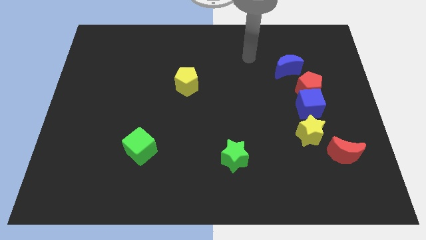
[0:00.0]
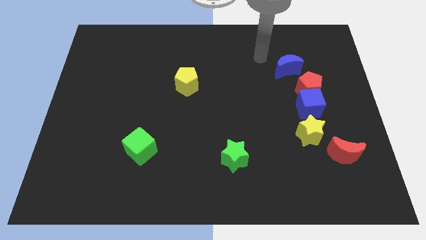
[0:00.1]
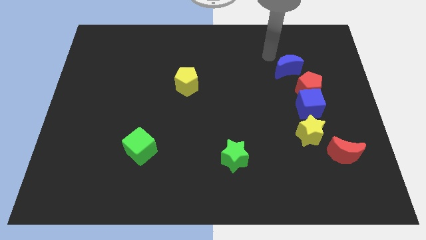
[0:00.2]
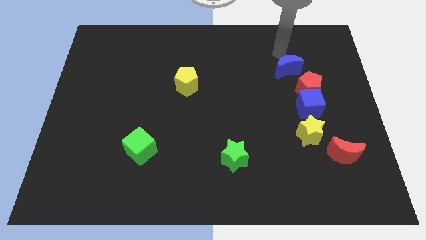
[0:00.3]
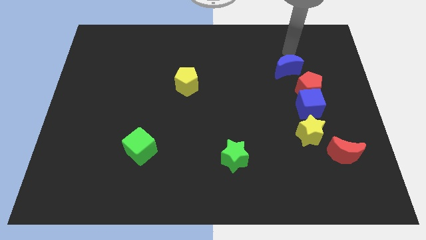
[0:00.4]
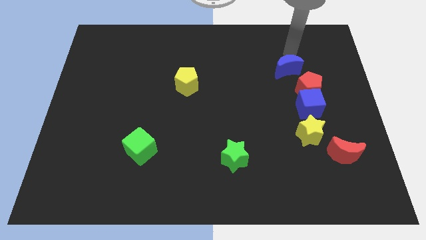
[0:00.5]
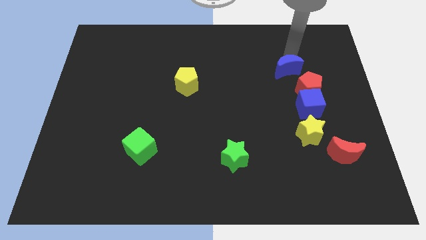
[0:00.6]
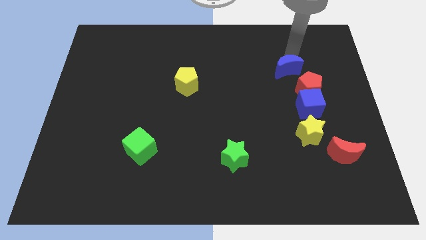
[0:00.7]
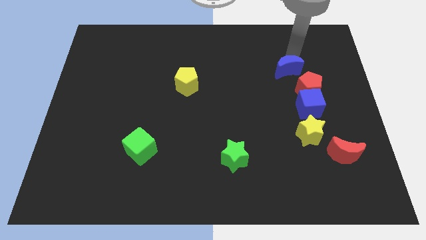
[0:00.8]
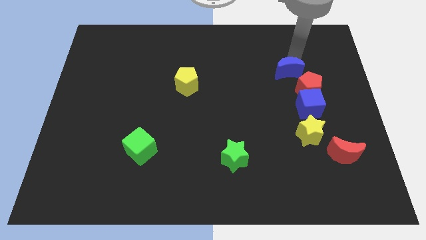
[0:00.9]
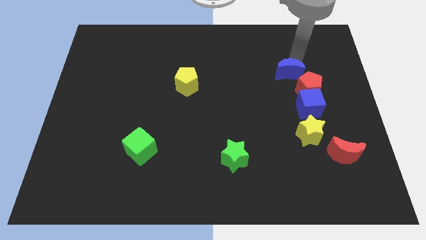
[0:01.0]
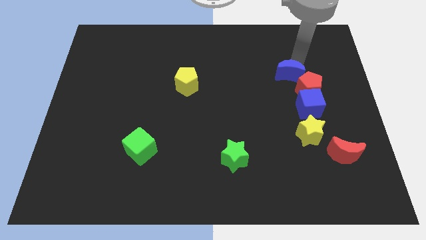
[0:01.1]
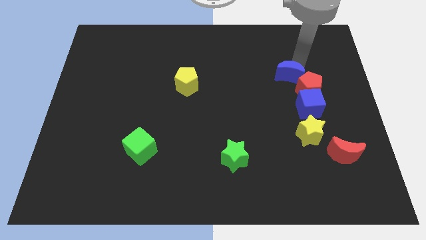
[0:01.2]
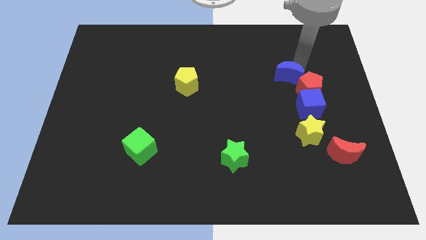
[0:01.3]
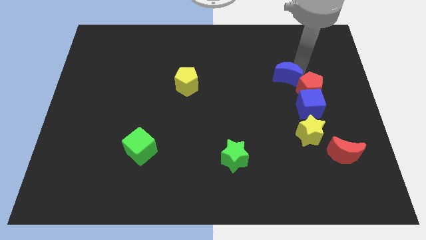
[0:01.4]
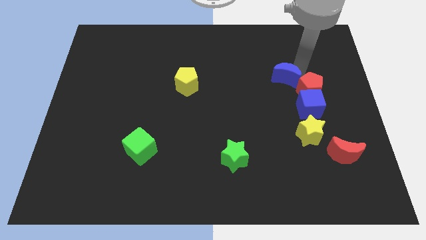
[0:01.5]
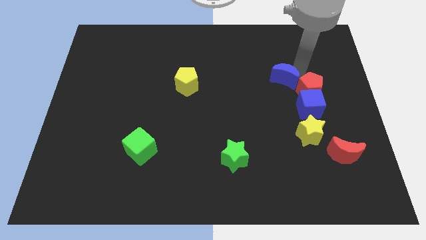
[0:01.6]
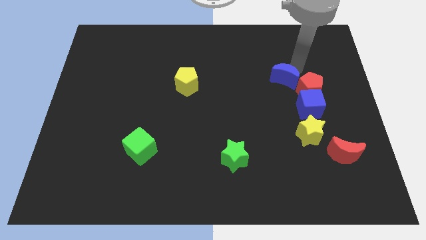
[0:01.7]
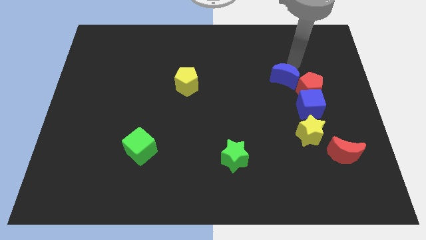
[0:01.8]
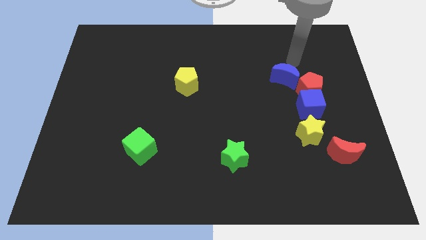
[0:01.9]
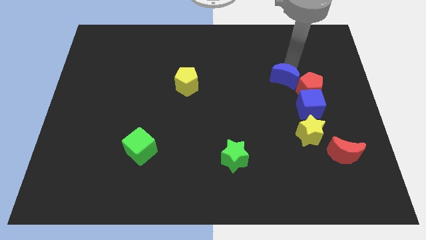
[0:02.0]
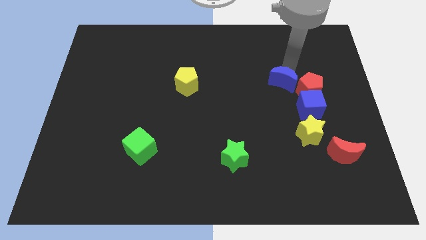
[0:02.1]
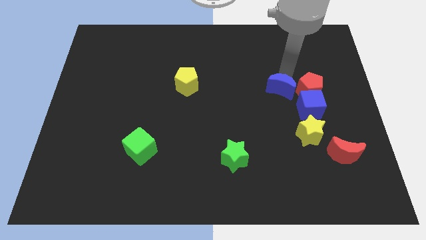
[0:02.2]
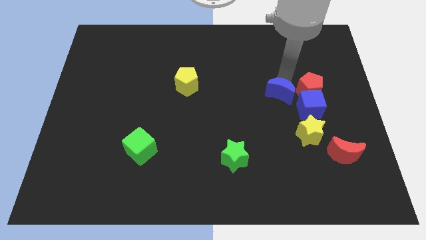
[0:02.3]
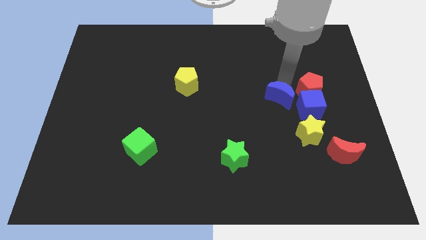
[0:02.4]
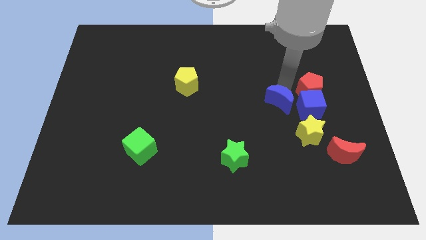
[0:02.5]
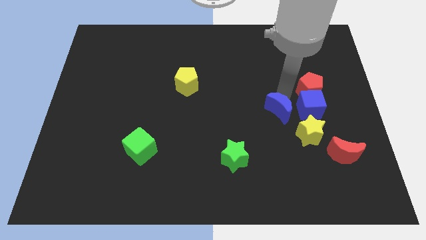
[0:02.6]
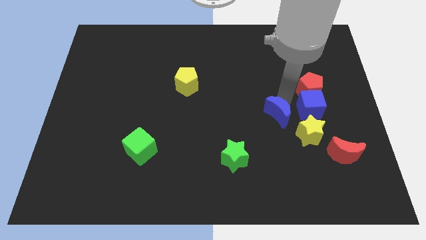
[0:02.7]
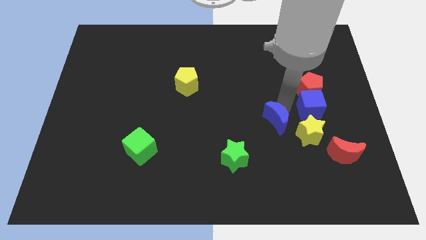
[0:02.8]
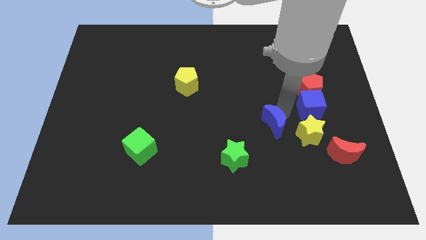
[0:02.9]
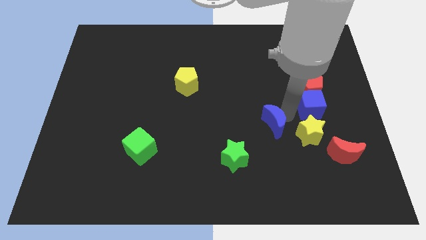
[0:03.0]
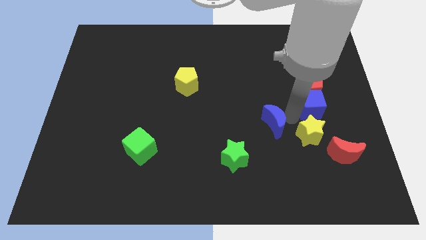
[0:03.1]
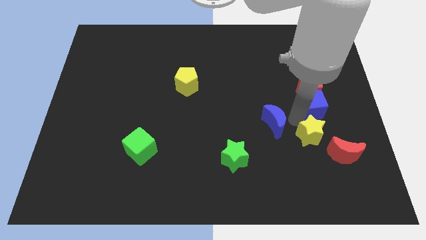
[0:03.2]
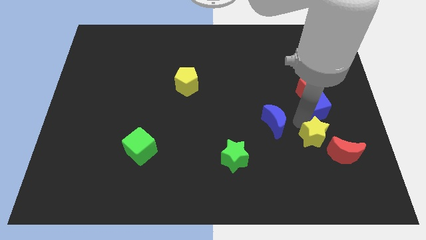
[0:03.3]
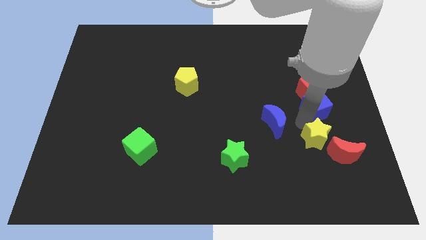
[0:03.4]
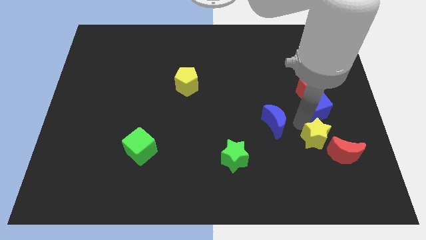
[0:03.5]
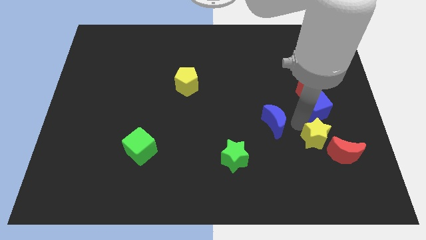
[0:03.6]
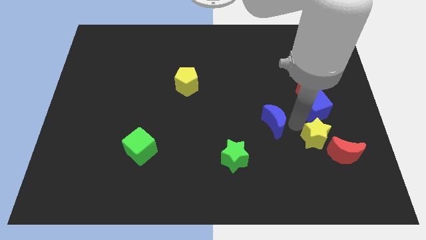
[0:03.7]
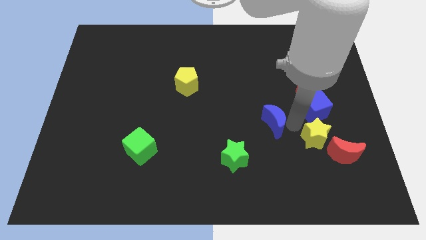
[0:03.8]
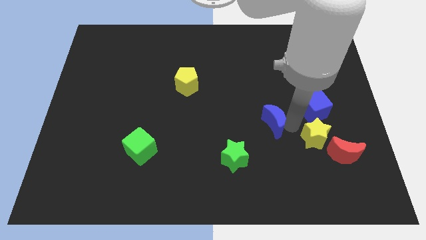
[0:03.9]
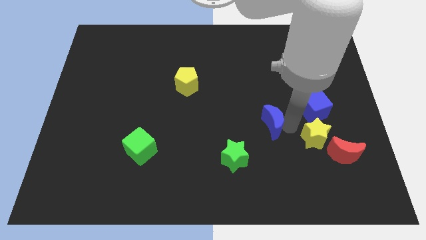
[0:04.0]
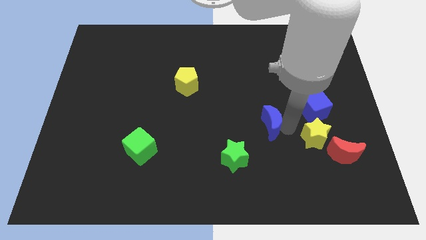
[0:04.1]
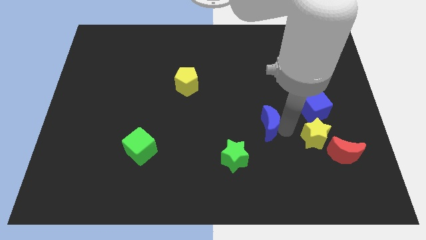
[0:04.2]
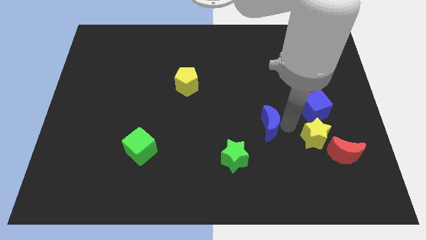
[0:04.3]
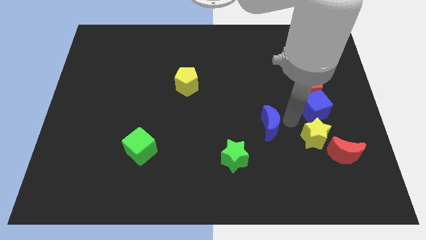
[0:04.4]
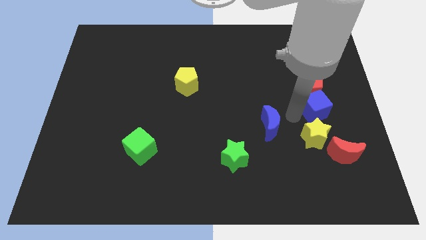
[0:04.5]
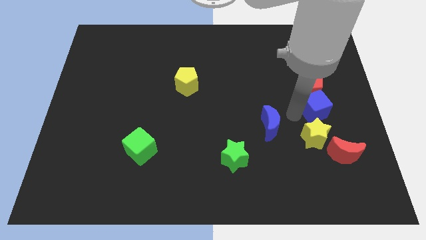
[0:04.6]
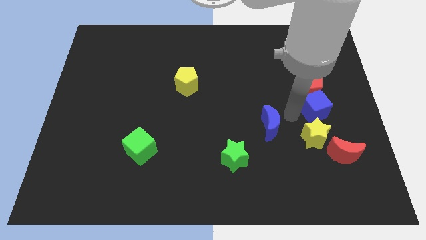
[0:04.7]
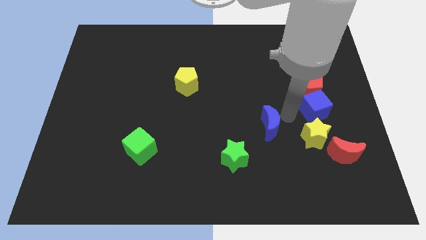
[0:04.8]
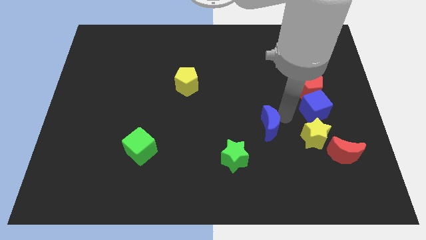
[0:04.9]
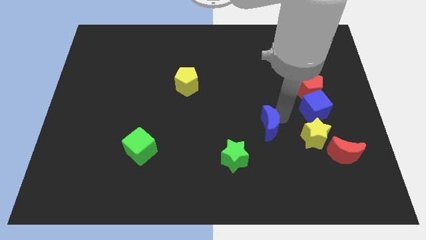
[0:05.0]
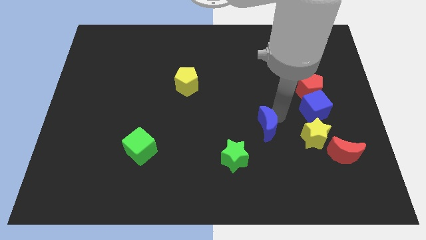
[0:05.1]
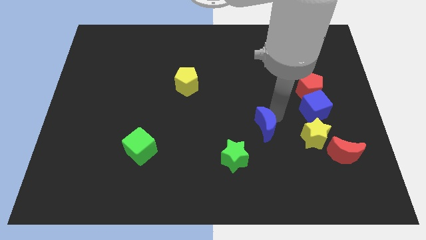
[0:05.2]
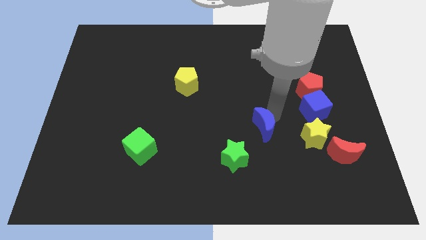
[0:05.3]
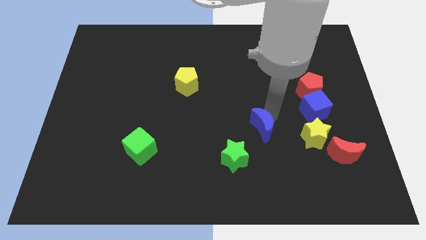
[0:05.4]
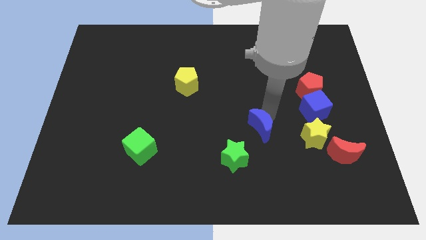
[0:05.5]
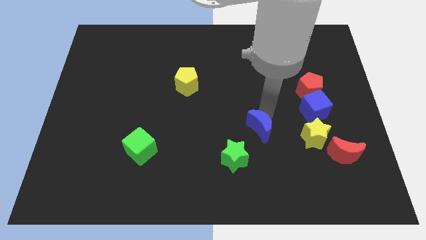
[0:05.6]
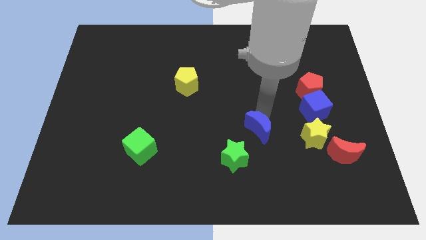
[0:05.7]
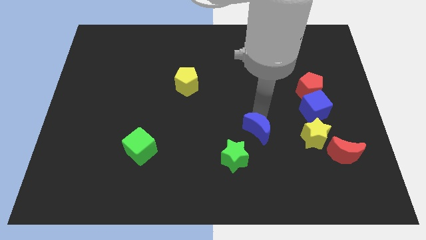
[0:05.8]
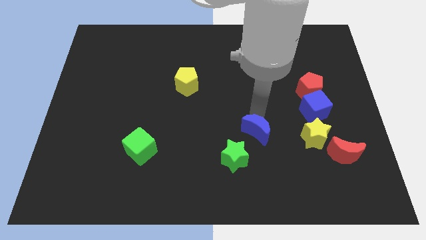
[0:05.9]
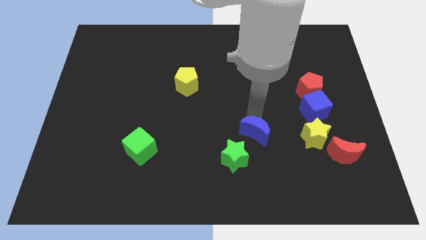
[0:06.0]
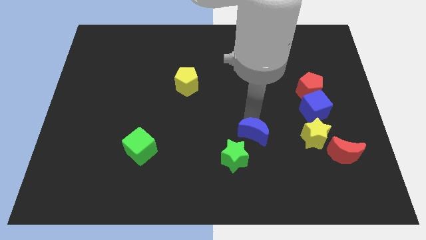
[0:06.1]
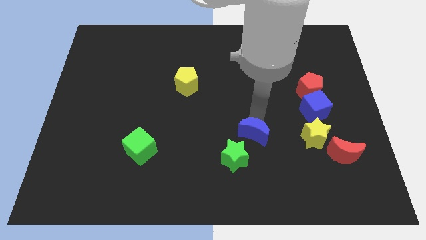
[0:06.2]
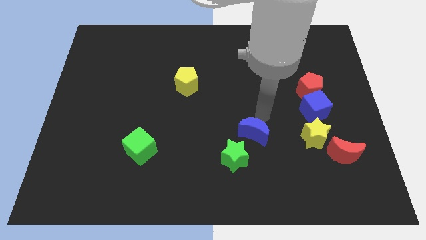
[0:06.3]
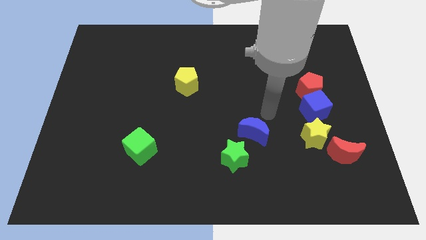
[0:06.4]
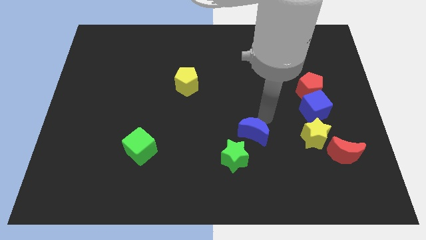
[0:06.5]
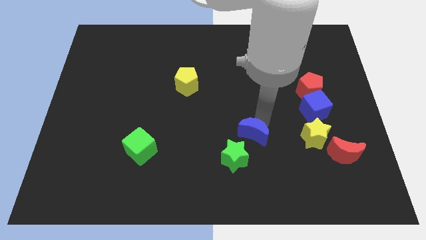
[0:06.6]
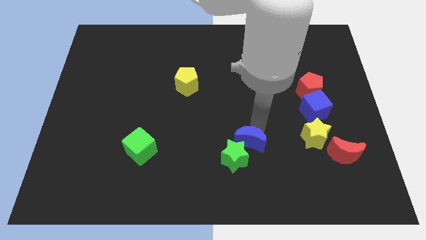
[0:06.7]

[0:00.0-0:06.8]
slide the blue moon towards the green star
